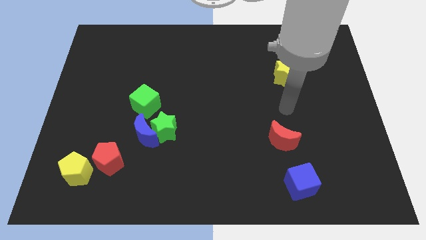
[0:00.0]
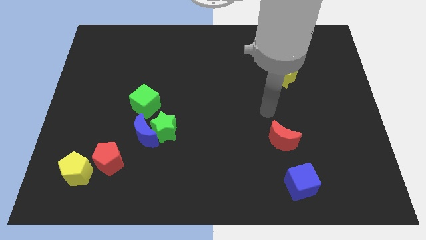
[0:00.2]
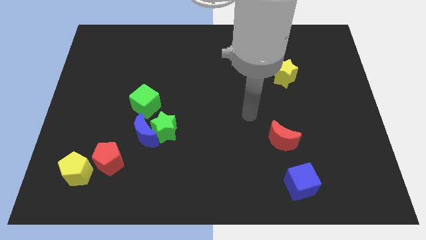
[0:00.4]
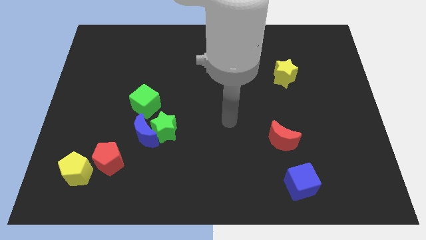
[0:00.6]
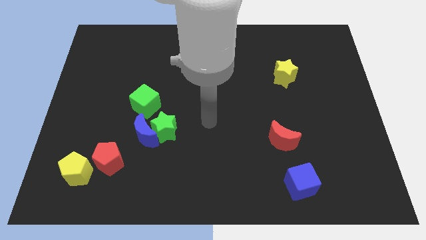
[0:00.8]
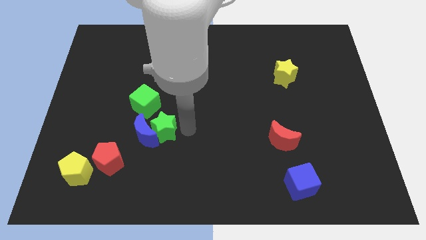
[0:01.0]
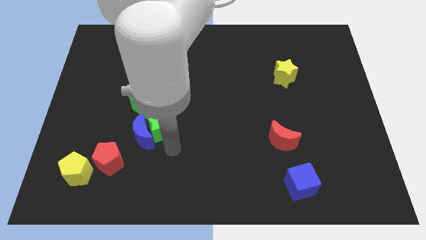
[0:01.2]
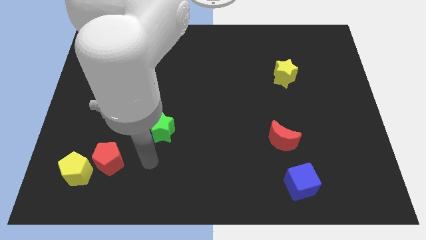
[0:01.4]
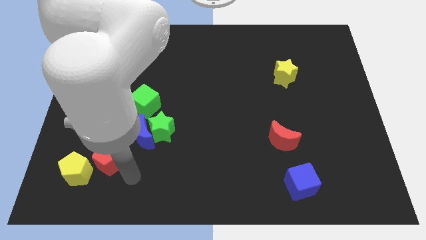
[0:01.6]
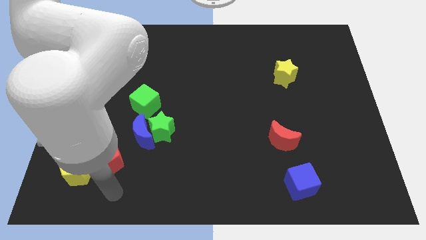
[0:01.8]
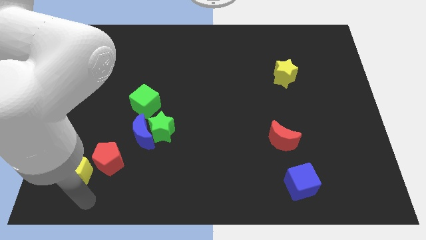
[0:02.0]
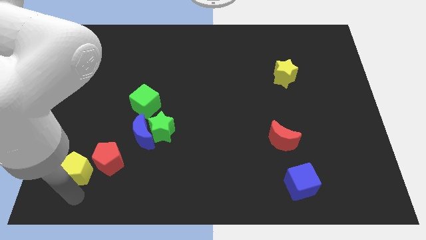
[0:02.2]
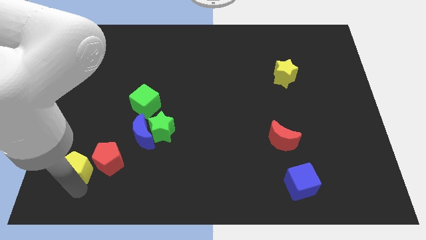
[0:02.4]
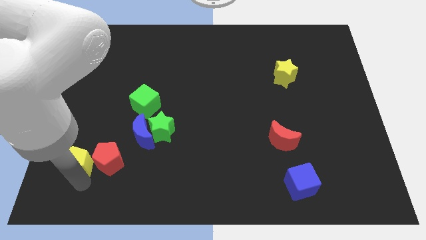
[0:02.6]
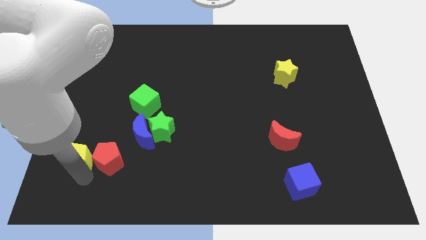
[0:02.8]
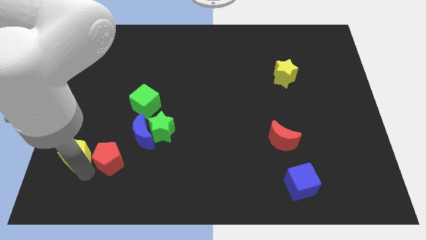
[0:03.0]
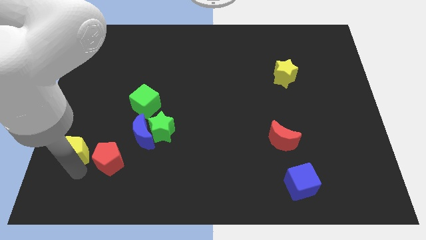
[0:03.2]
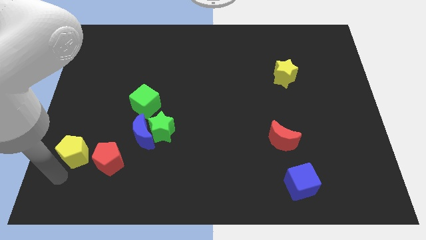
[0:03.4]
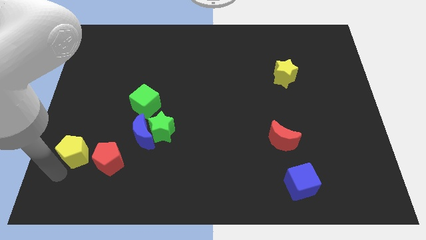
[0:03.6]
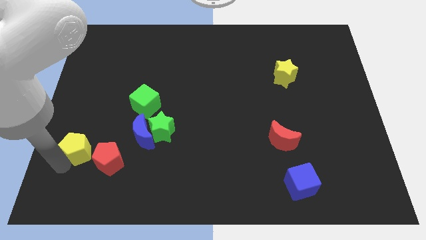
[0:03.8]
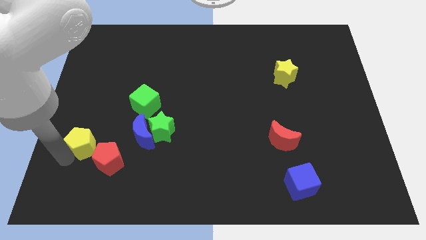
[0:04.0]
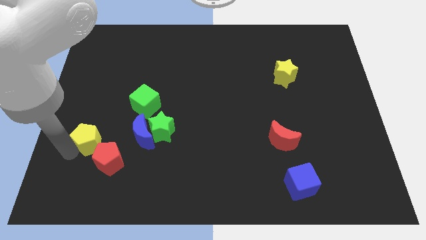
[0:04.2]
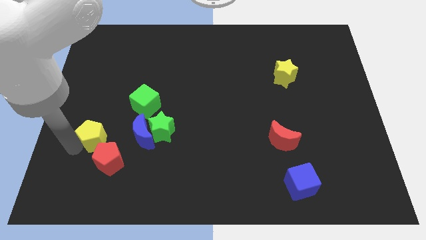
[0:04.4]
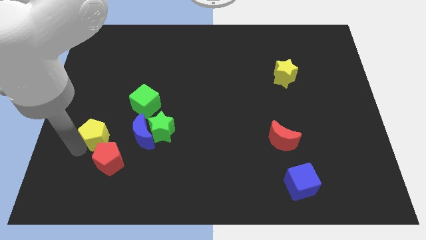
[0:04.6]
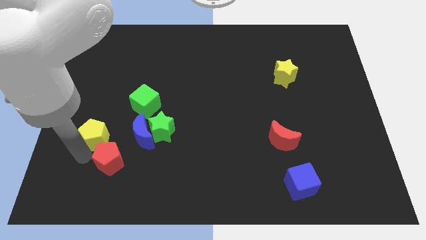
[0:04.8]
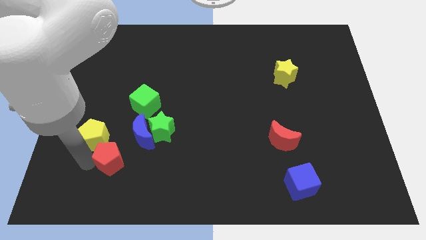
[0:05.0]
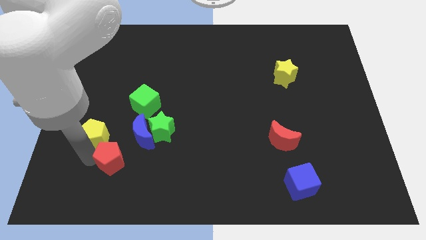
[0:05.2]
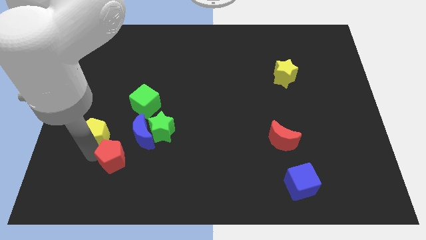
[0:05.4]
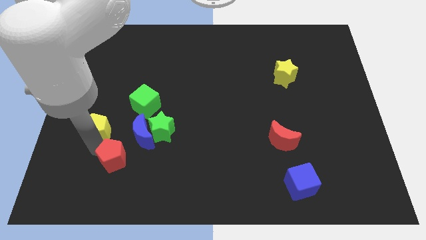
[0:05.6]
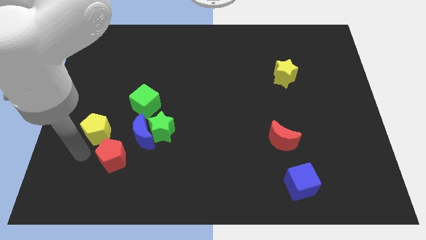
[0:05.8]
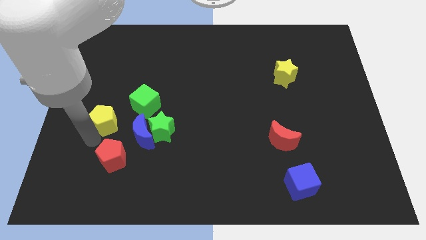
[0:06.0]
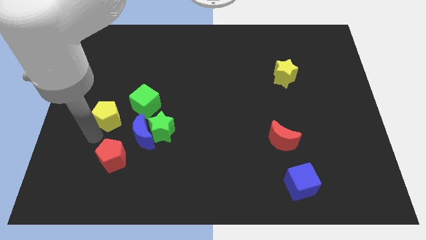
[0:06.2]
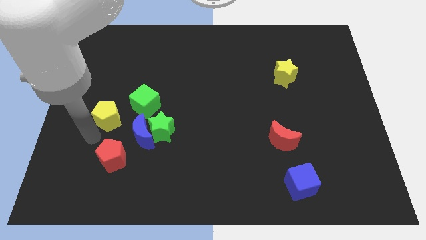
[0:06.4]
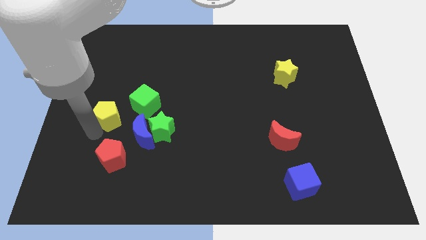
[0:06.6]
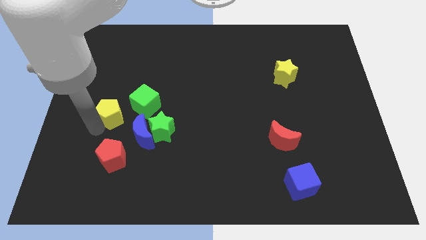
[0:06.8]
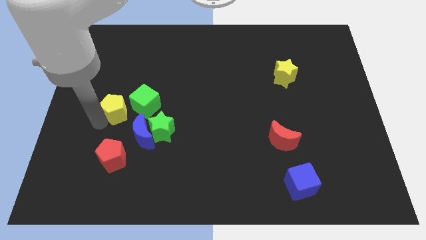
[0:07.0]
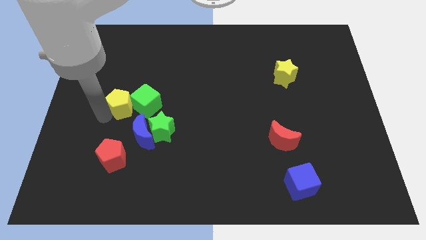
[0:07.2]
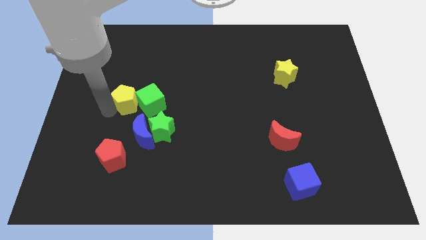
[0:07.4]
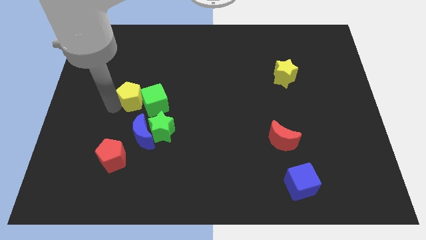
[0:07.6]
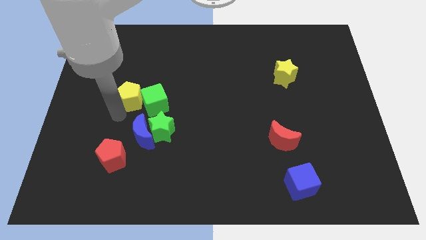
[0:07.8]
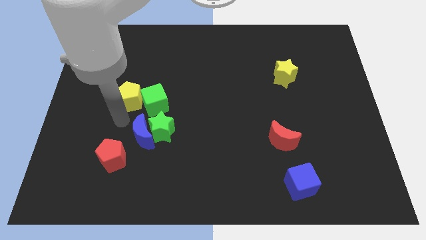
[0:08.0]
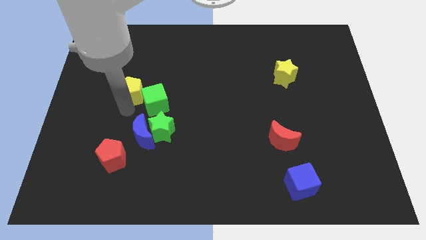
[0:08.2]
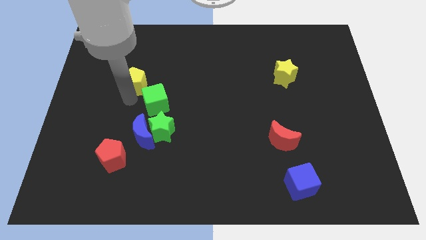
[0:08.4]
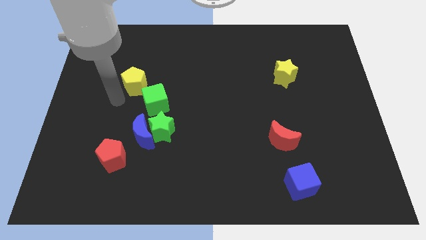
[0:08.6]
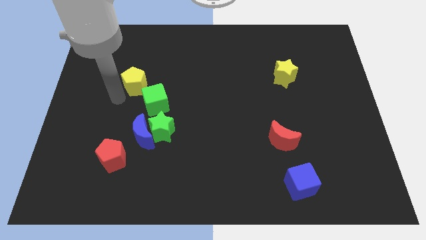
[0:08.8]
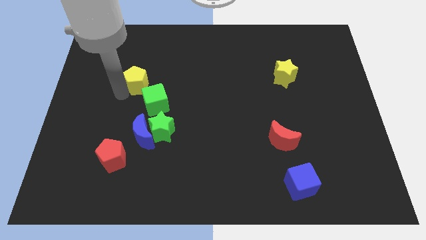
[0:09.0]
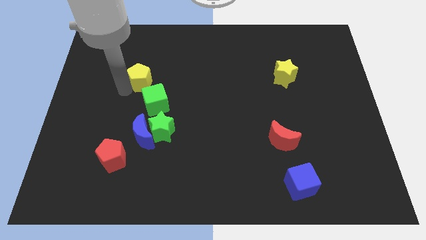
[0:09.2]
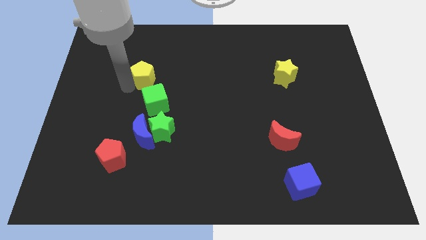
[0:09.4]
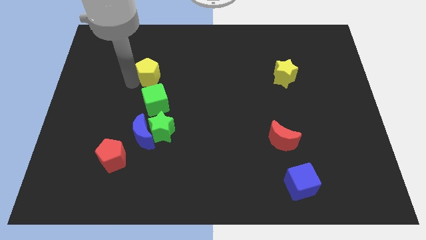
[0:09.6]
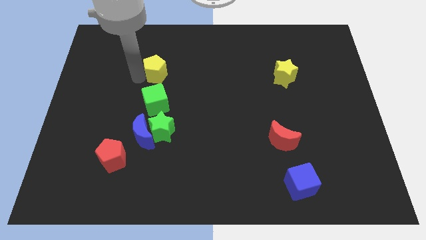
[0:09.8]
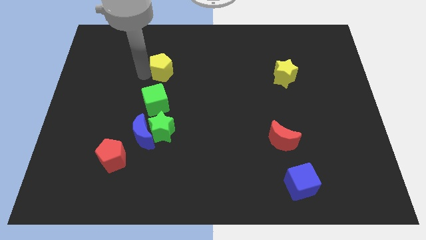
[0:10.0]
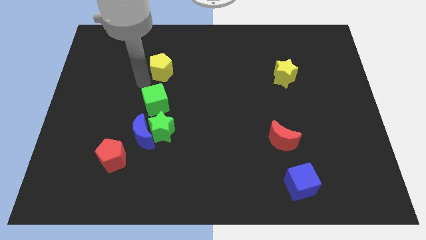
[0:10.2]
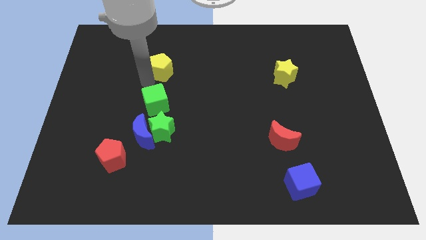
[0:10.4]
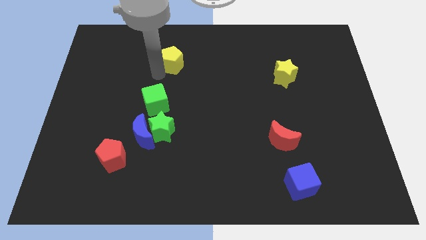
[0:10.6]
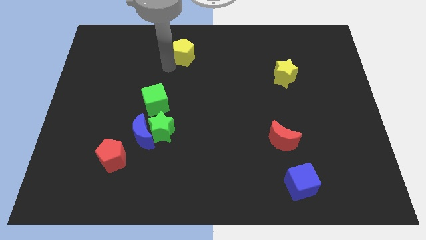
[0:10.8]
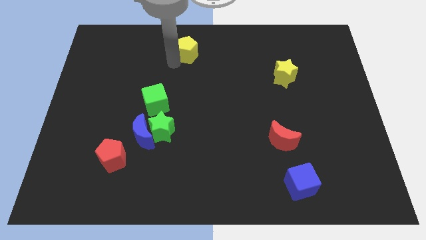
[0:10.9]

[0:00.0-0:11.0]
put the yellow pentagon to the top

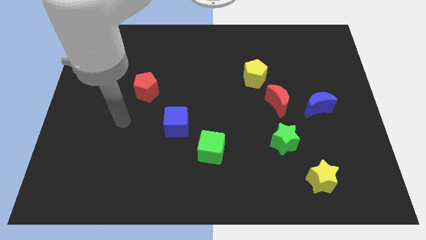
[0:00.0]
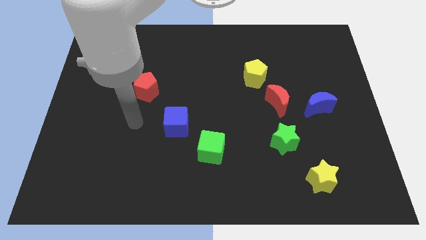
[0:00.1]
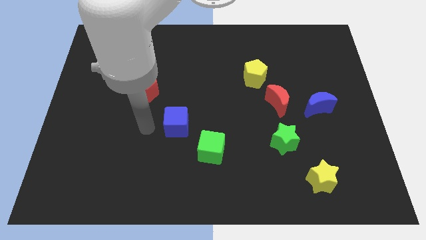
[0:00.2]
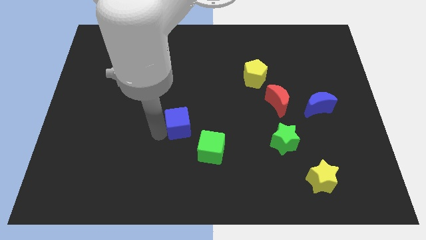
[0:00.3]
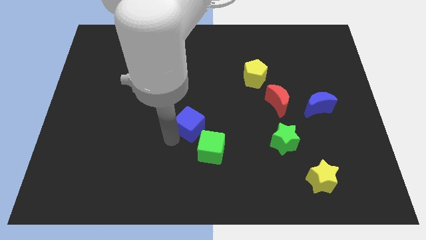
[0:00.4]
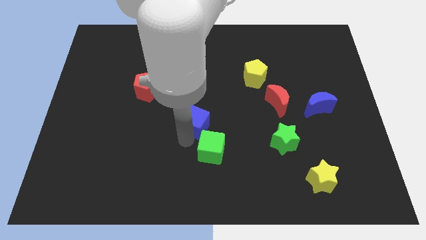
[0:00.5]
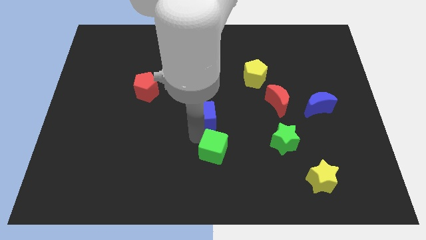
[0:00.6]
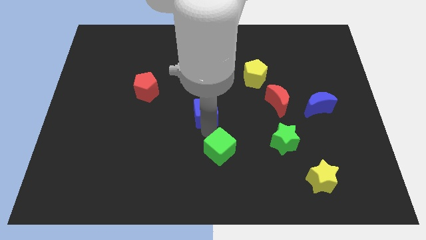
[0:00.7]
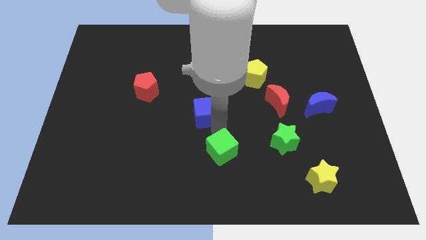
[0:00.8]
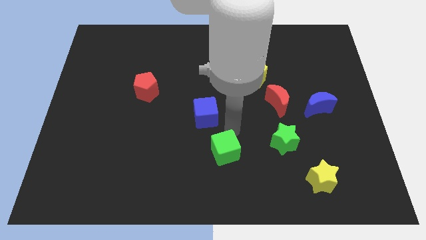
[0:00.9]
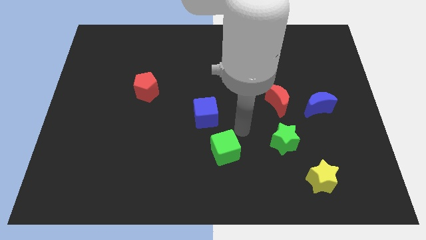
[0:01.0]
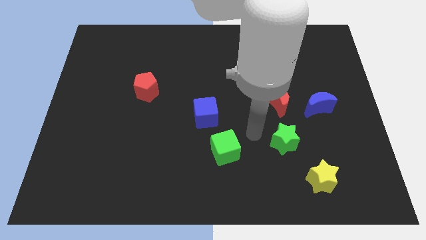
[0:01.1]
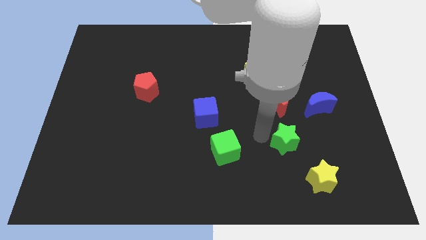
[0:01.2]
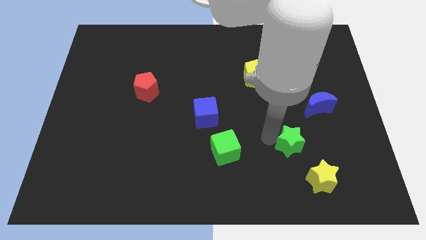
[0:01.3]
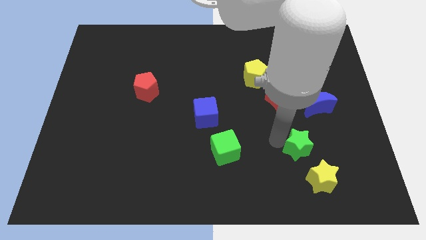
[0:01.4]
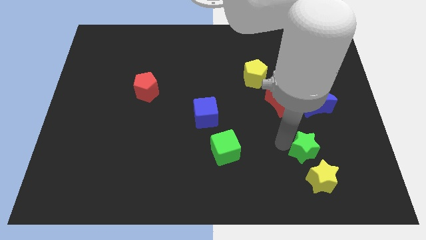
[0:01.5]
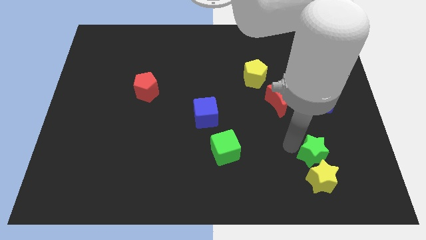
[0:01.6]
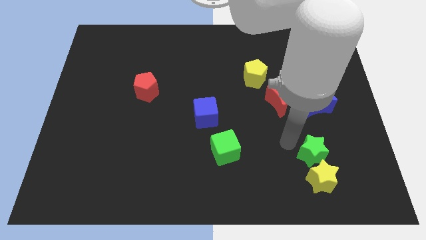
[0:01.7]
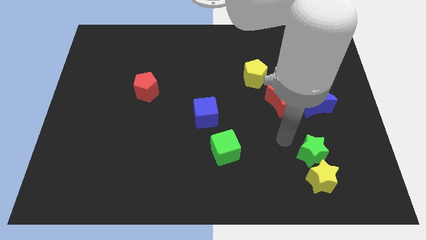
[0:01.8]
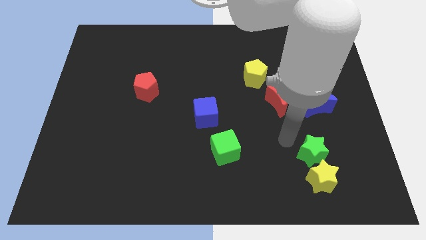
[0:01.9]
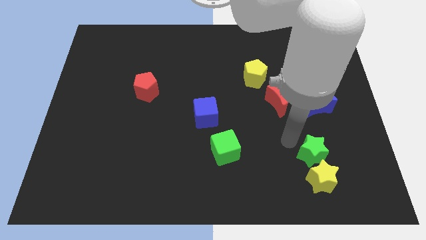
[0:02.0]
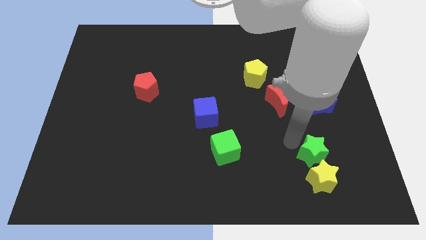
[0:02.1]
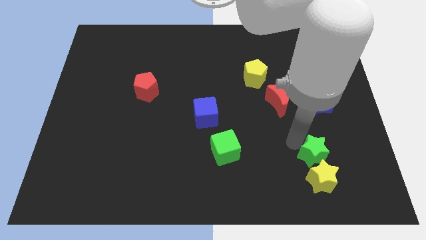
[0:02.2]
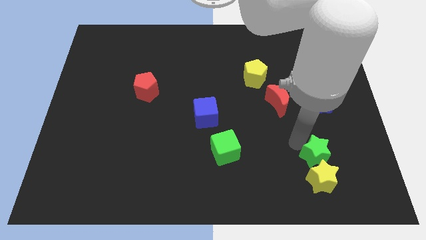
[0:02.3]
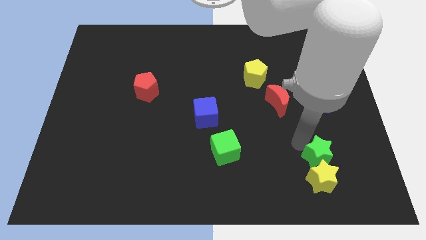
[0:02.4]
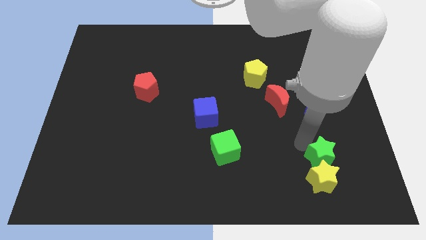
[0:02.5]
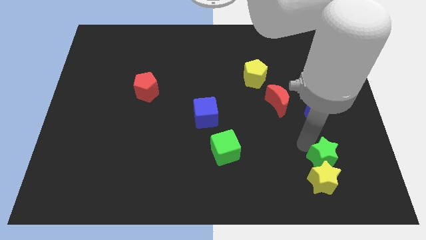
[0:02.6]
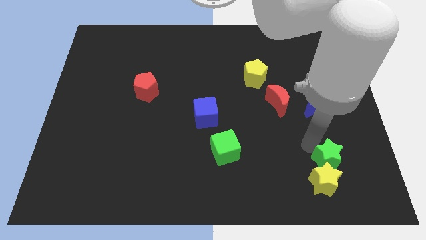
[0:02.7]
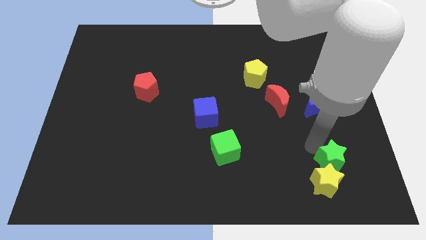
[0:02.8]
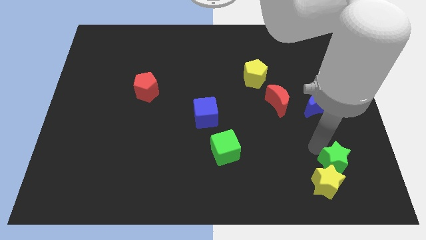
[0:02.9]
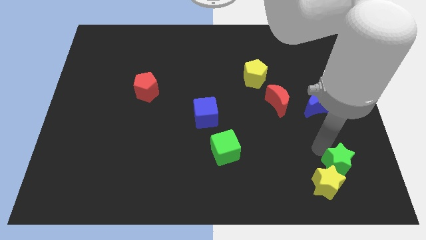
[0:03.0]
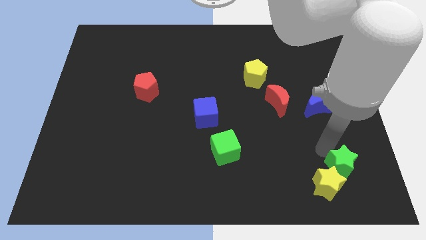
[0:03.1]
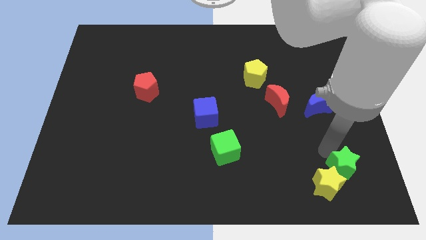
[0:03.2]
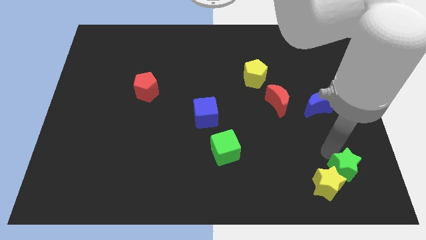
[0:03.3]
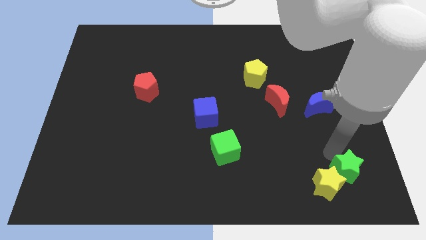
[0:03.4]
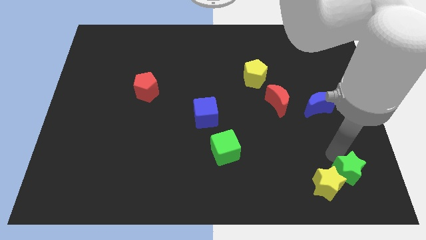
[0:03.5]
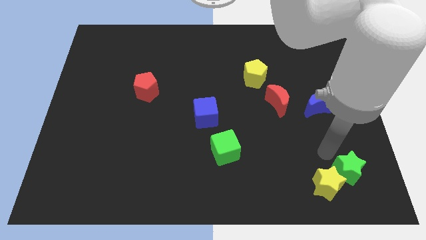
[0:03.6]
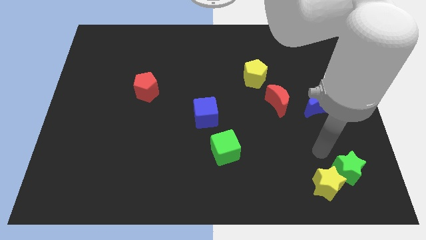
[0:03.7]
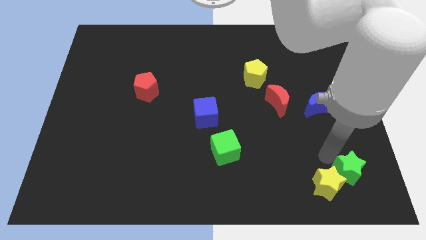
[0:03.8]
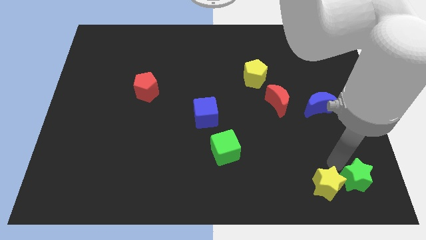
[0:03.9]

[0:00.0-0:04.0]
put the green star to the bottom right of the board
